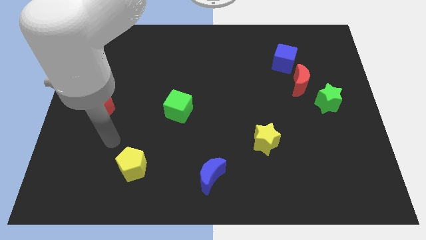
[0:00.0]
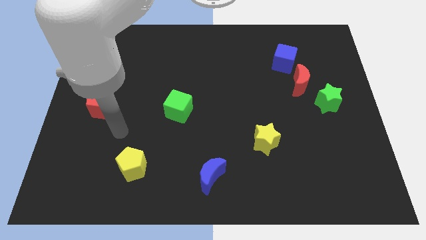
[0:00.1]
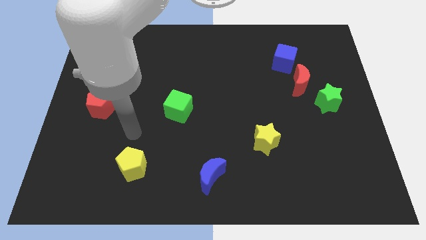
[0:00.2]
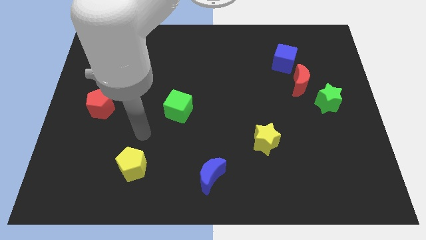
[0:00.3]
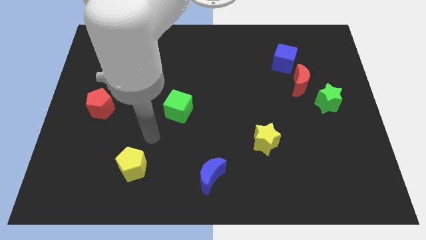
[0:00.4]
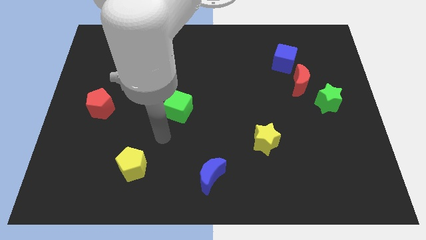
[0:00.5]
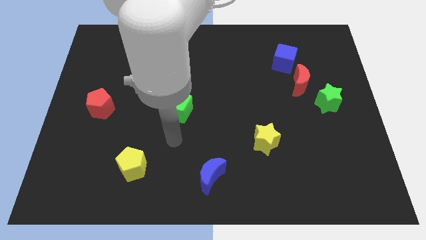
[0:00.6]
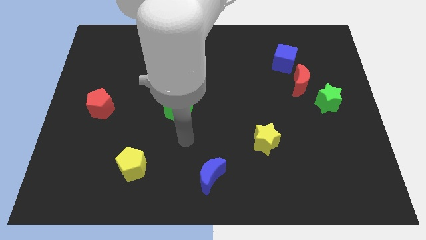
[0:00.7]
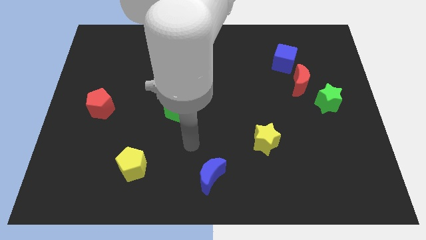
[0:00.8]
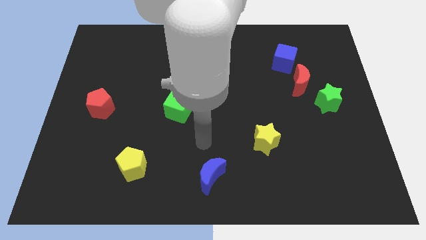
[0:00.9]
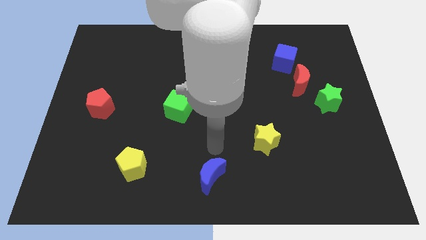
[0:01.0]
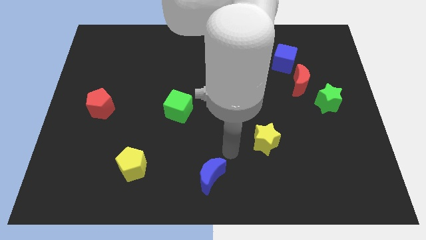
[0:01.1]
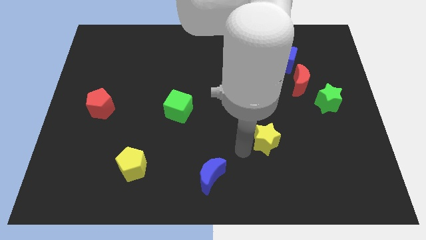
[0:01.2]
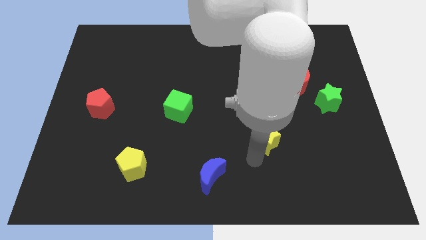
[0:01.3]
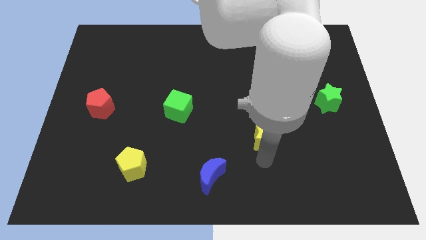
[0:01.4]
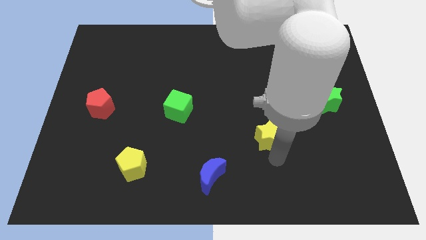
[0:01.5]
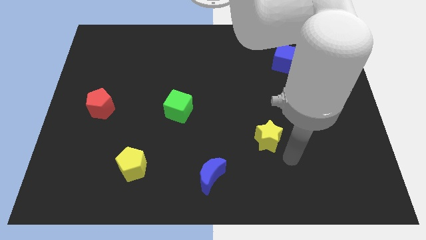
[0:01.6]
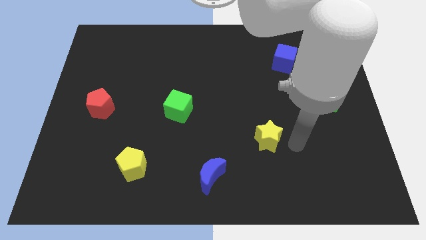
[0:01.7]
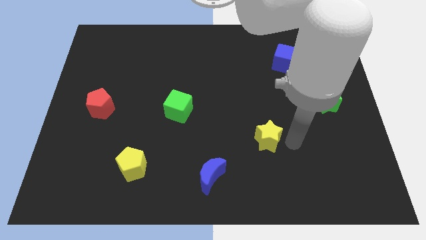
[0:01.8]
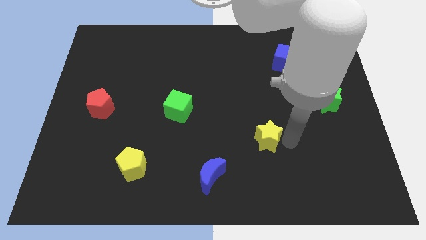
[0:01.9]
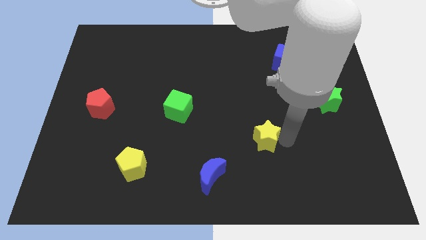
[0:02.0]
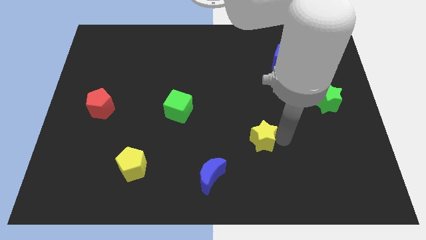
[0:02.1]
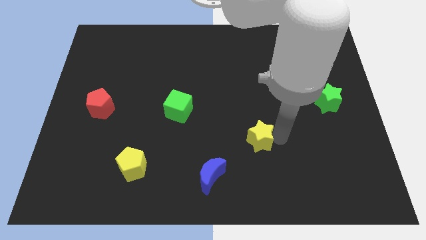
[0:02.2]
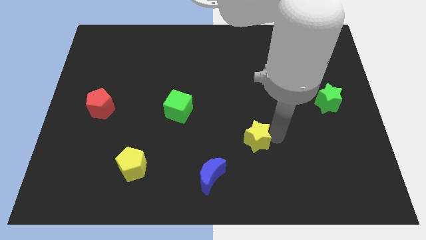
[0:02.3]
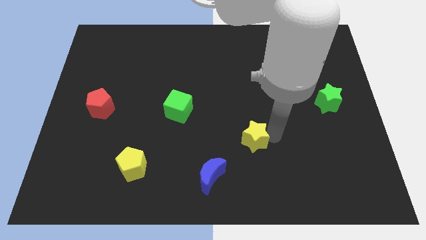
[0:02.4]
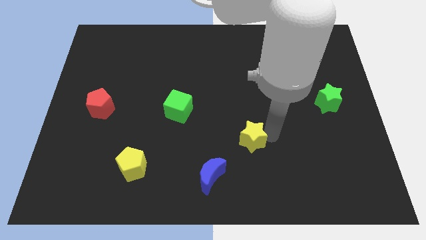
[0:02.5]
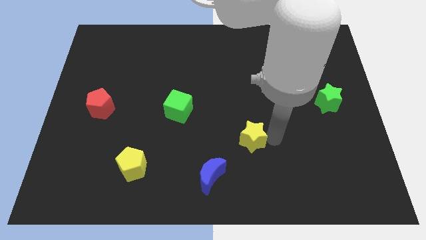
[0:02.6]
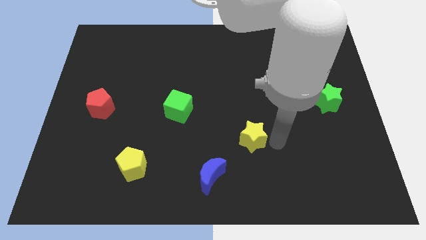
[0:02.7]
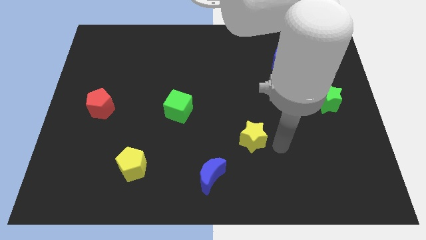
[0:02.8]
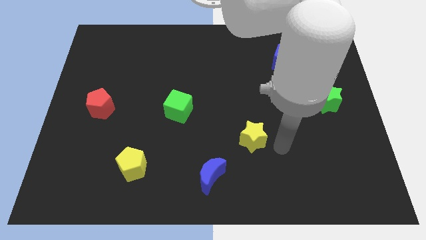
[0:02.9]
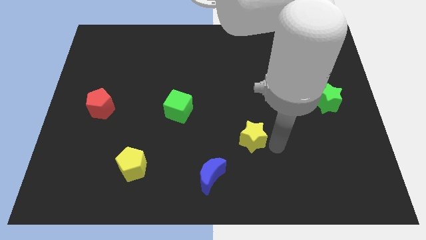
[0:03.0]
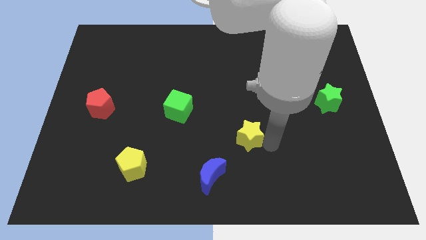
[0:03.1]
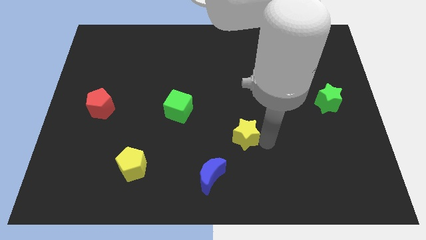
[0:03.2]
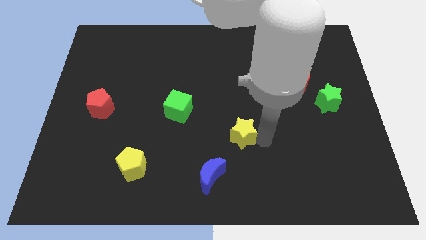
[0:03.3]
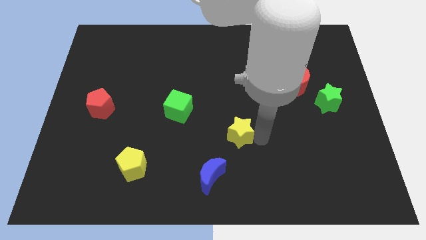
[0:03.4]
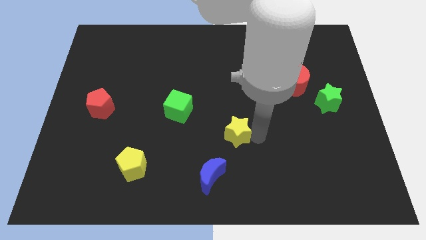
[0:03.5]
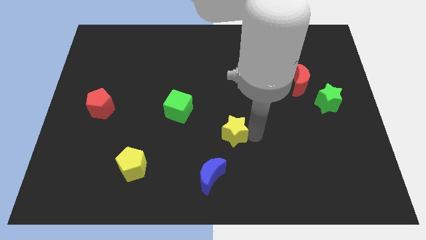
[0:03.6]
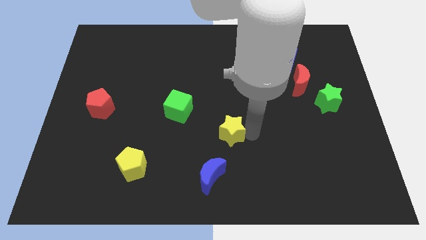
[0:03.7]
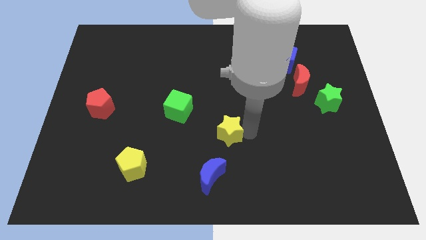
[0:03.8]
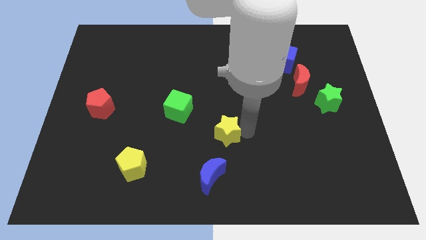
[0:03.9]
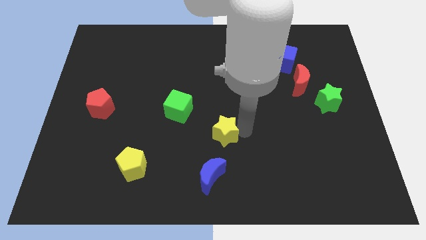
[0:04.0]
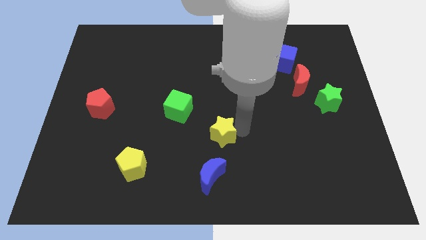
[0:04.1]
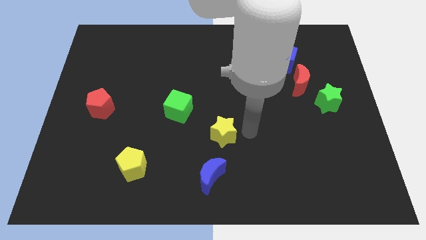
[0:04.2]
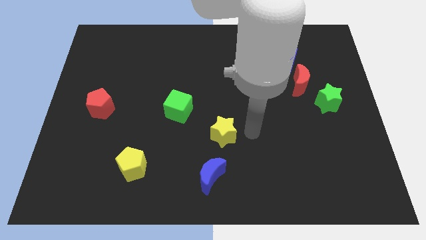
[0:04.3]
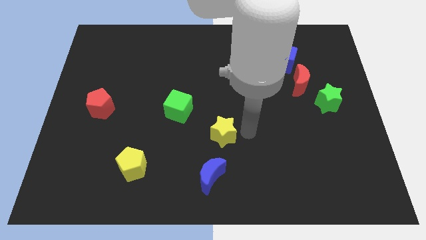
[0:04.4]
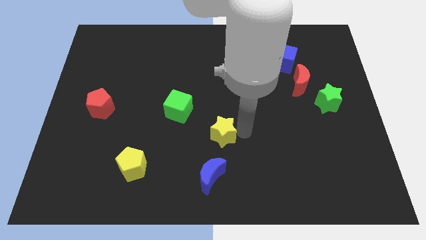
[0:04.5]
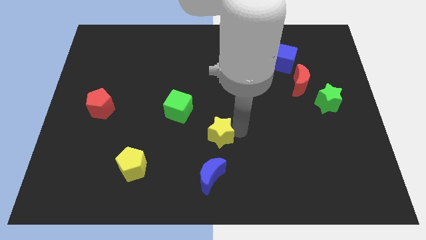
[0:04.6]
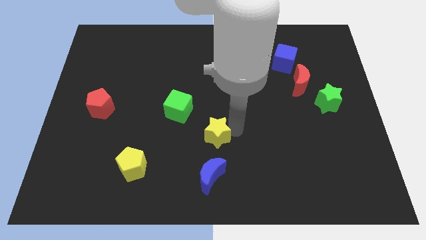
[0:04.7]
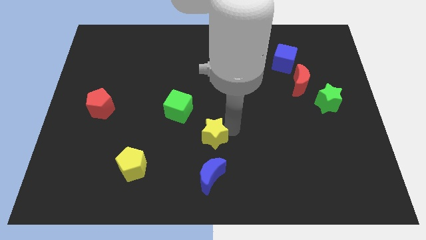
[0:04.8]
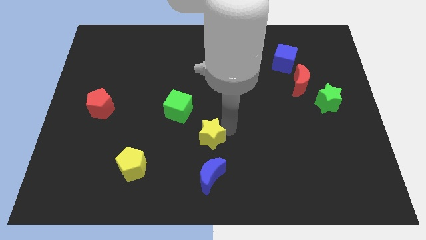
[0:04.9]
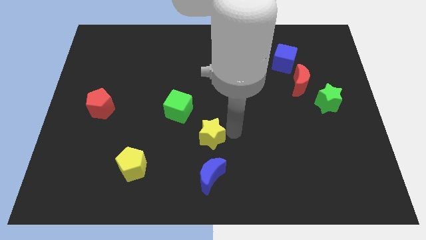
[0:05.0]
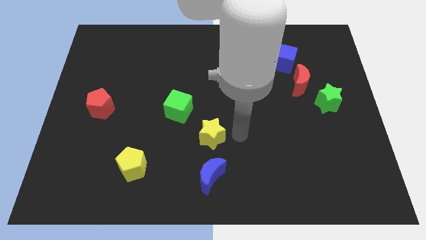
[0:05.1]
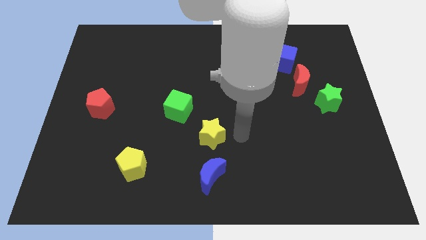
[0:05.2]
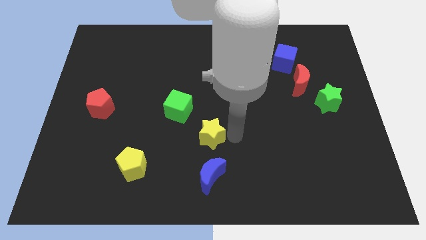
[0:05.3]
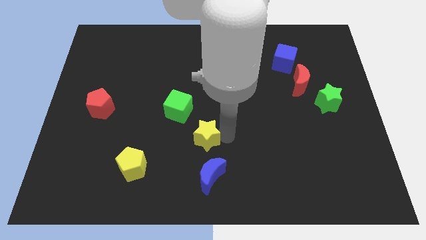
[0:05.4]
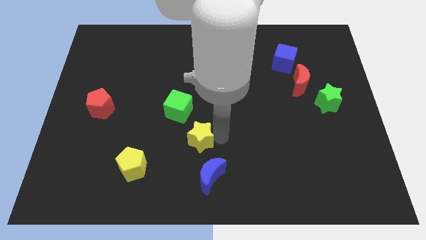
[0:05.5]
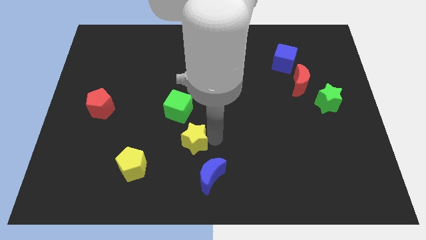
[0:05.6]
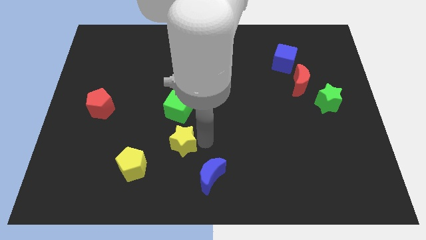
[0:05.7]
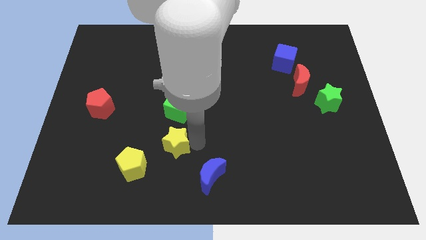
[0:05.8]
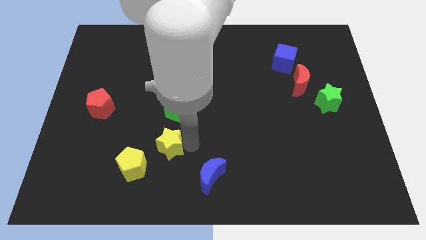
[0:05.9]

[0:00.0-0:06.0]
slide the yellow star to the left

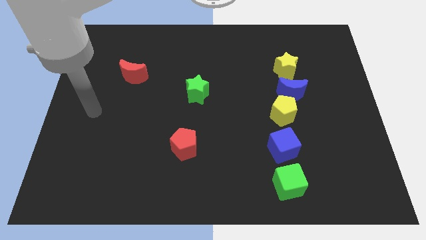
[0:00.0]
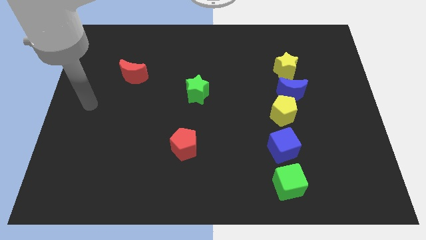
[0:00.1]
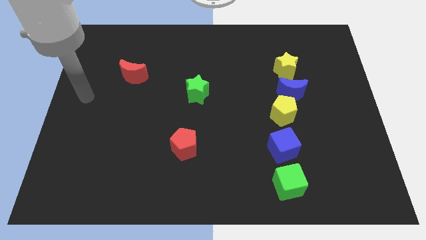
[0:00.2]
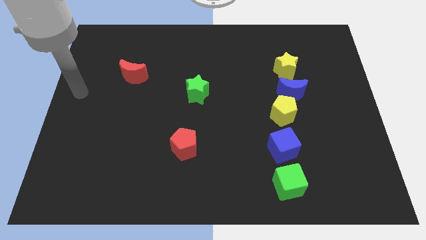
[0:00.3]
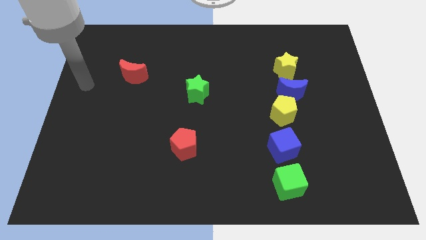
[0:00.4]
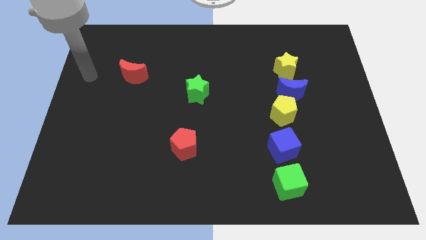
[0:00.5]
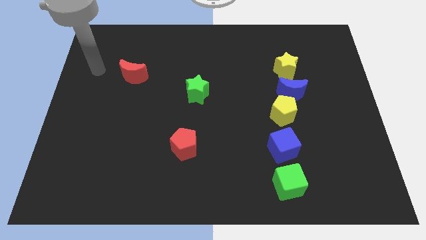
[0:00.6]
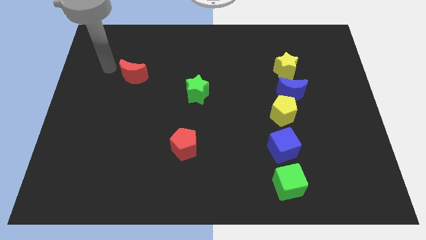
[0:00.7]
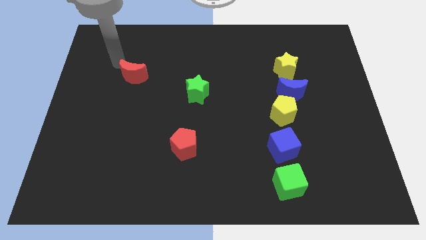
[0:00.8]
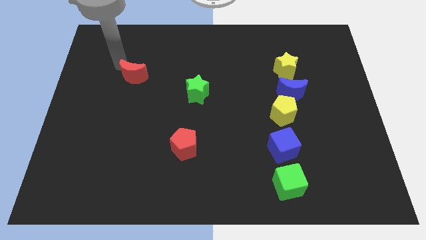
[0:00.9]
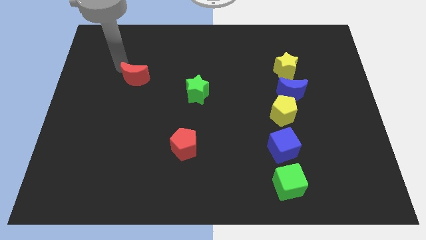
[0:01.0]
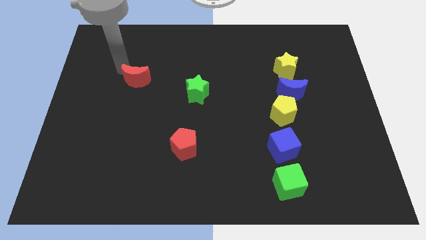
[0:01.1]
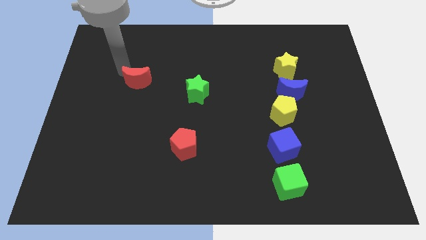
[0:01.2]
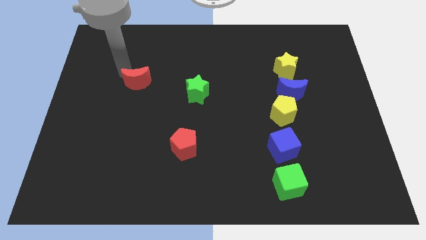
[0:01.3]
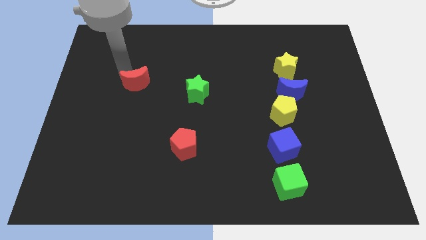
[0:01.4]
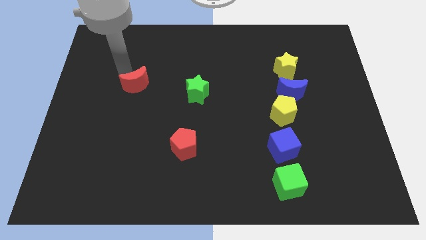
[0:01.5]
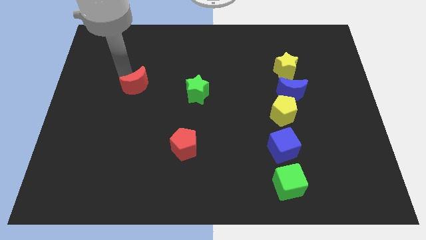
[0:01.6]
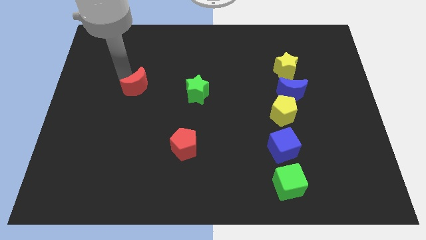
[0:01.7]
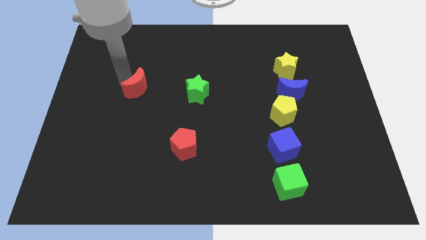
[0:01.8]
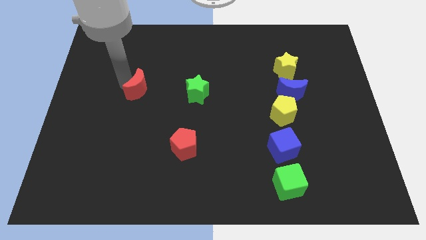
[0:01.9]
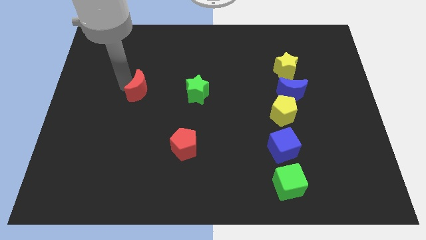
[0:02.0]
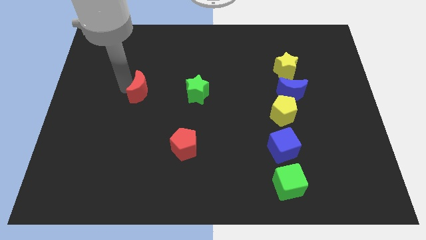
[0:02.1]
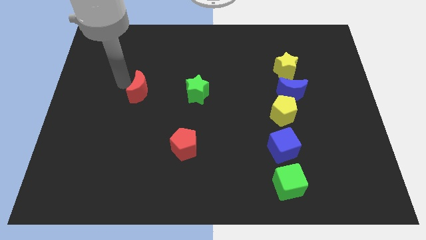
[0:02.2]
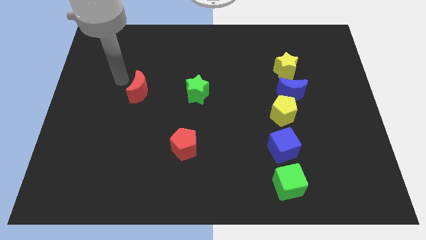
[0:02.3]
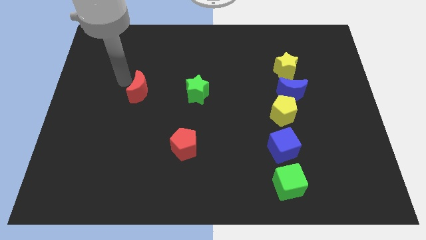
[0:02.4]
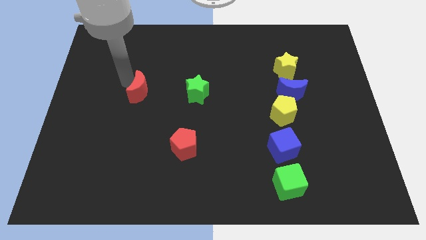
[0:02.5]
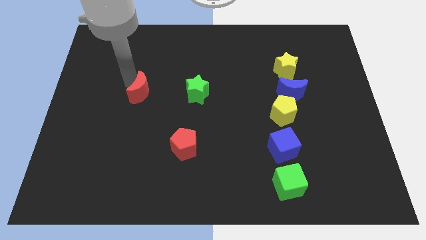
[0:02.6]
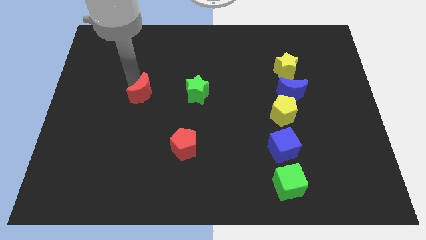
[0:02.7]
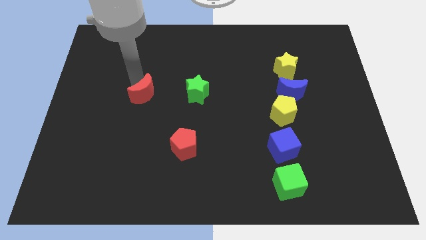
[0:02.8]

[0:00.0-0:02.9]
push the red moon a little bit down and right diagonally
